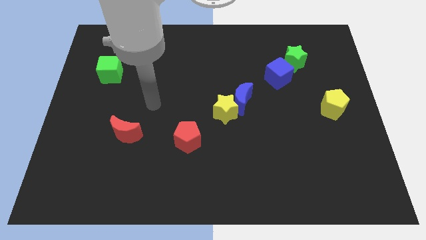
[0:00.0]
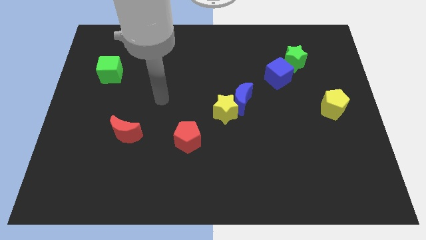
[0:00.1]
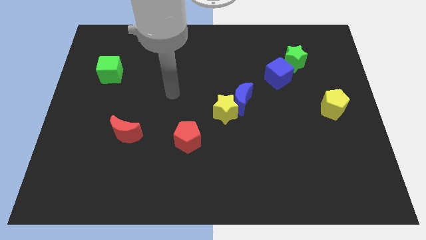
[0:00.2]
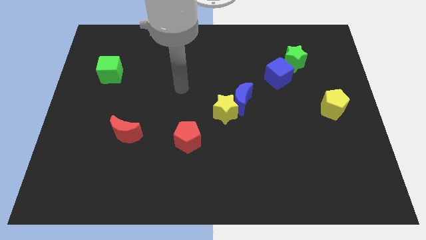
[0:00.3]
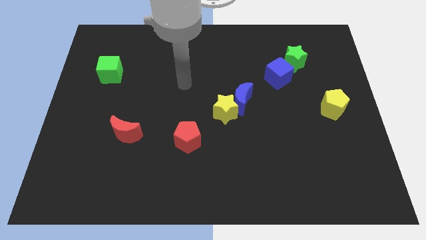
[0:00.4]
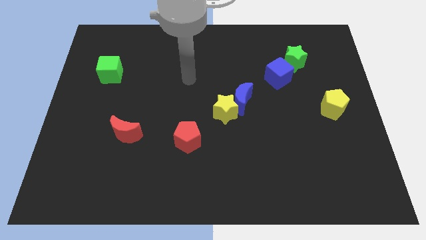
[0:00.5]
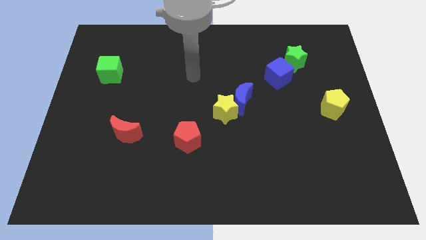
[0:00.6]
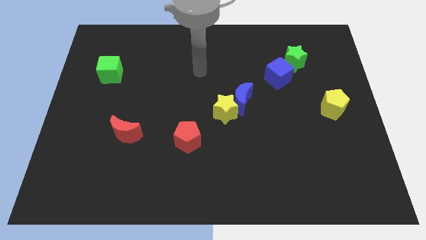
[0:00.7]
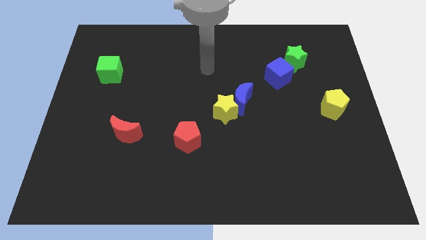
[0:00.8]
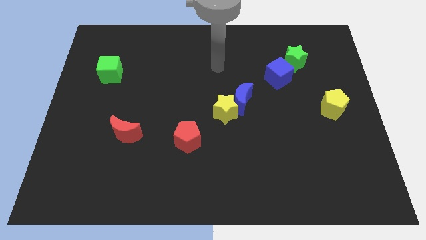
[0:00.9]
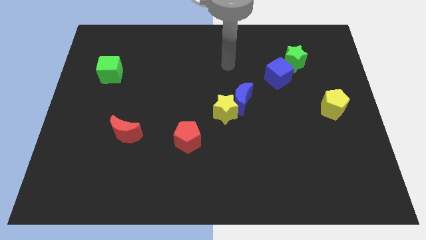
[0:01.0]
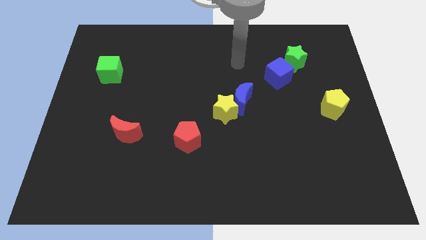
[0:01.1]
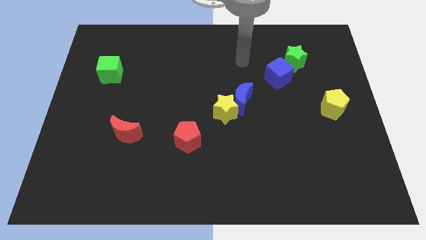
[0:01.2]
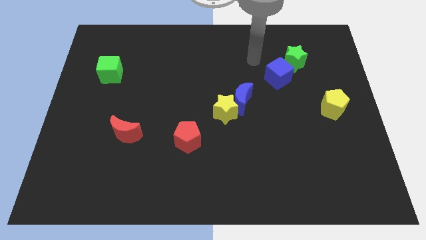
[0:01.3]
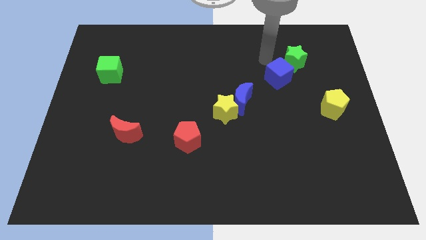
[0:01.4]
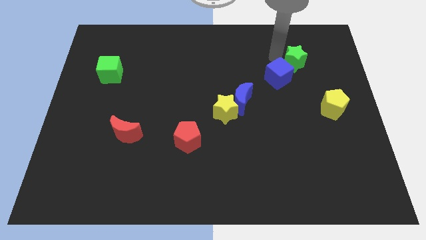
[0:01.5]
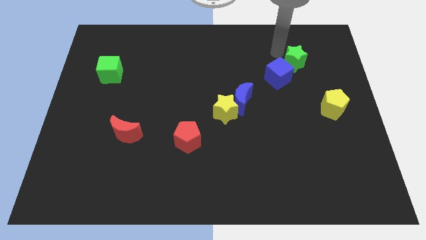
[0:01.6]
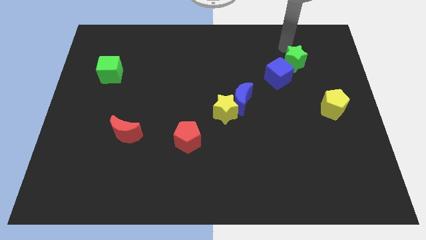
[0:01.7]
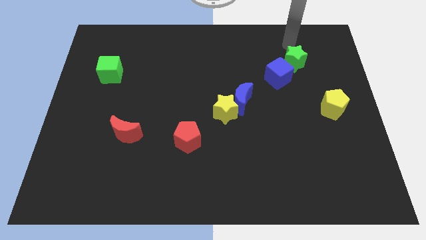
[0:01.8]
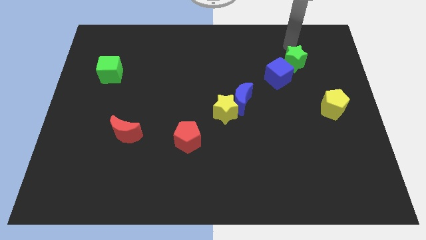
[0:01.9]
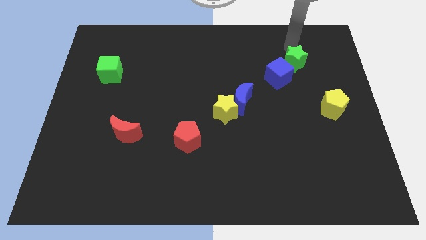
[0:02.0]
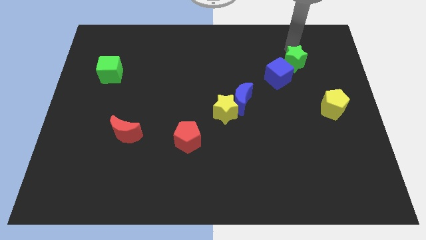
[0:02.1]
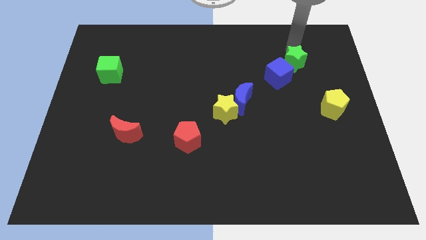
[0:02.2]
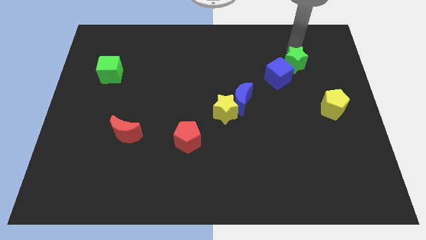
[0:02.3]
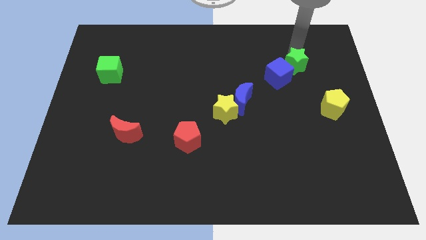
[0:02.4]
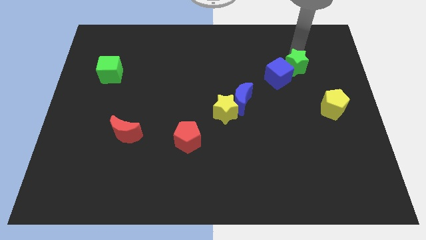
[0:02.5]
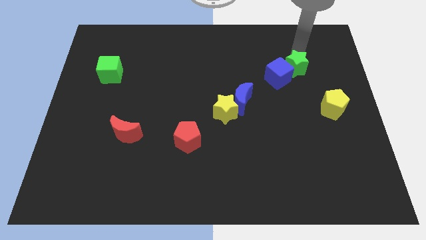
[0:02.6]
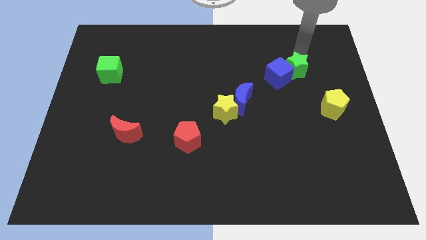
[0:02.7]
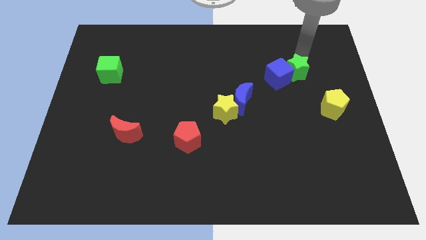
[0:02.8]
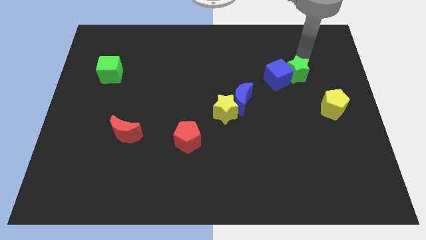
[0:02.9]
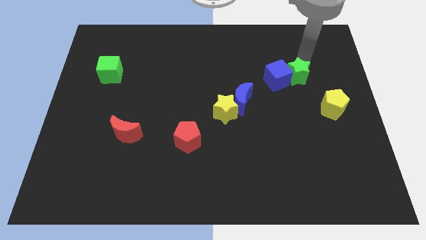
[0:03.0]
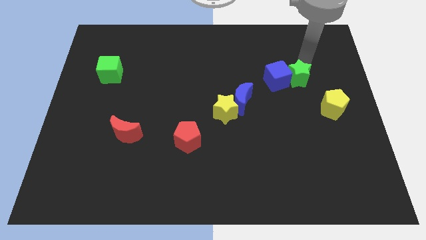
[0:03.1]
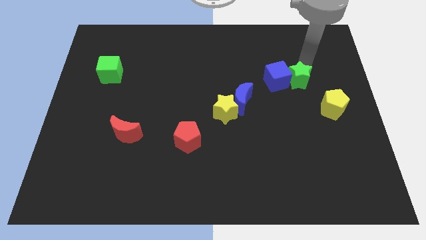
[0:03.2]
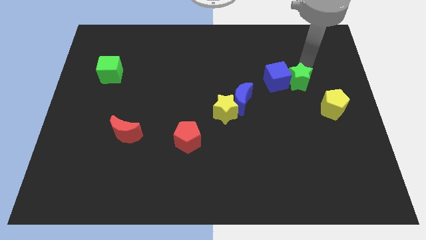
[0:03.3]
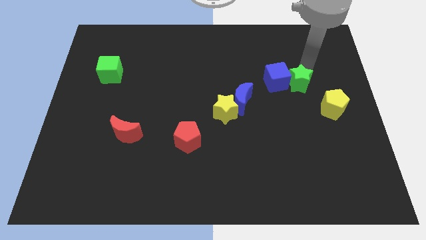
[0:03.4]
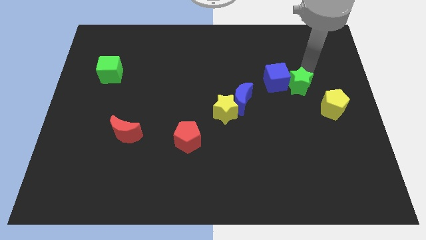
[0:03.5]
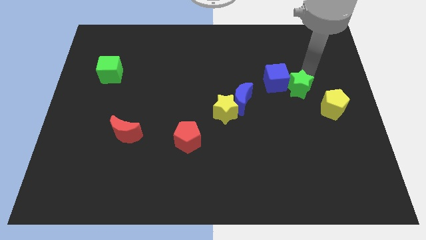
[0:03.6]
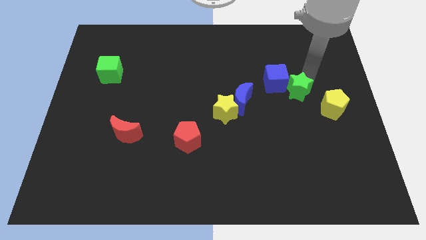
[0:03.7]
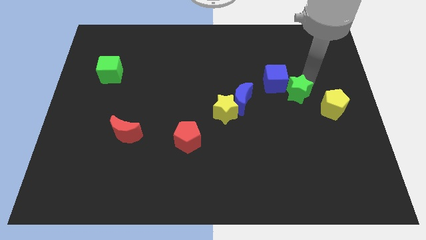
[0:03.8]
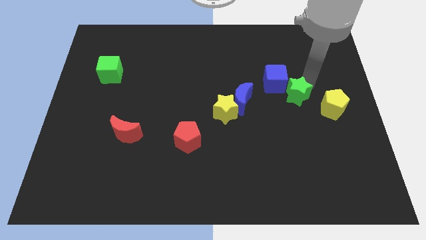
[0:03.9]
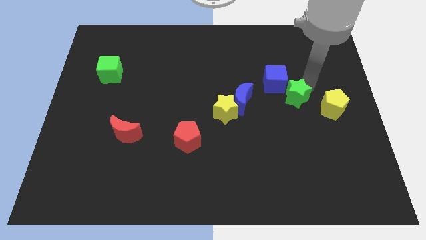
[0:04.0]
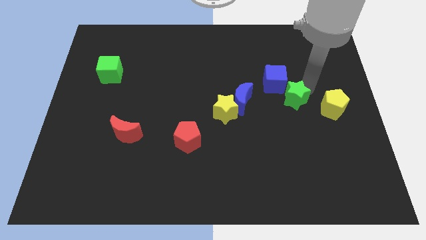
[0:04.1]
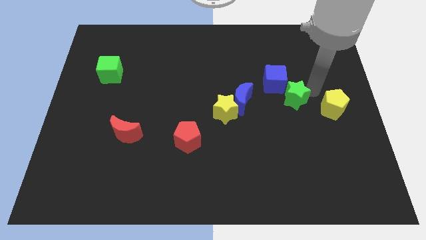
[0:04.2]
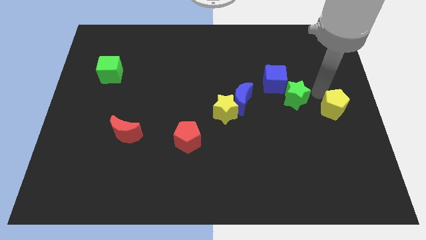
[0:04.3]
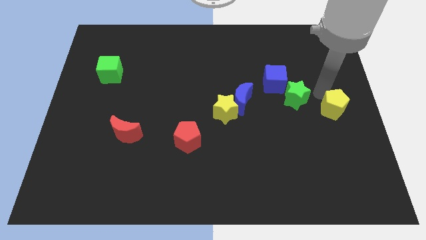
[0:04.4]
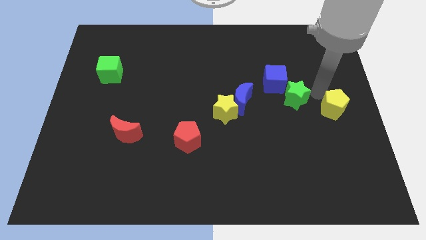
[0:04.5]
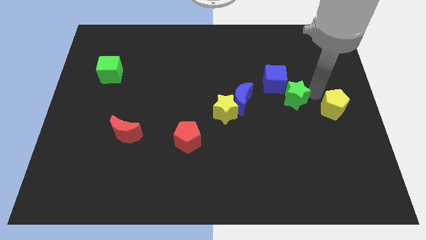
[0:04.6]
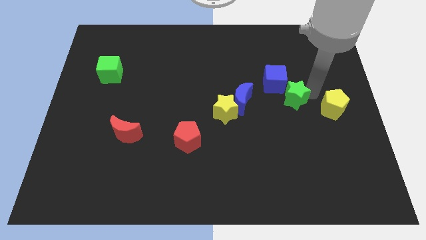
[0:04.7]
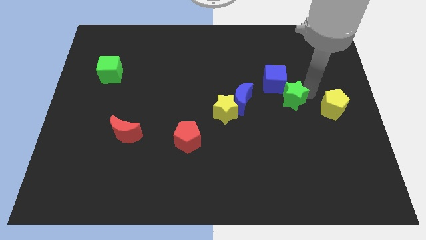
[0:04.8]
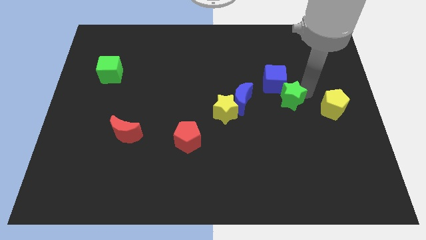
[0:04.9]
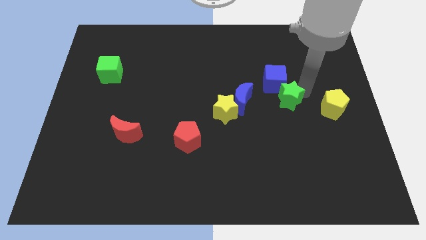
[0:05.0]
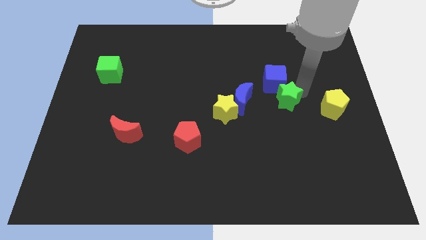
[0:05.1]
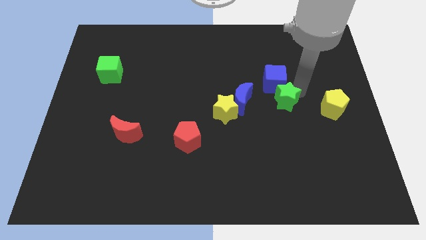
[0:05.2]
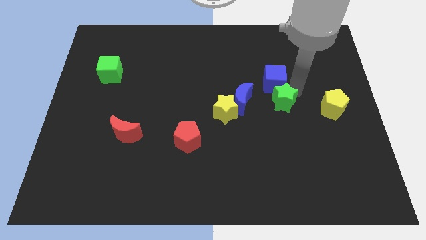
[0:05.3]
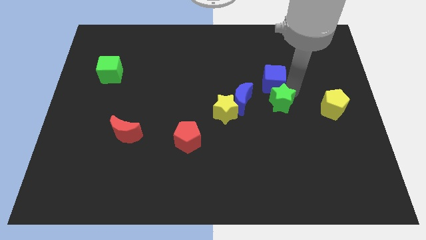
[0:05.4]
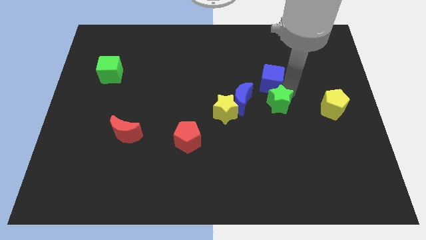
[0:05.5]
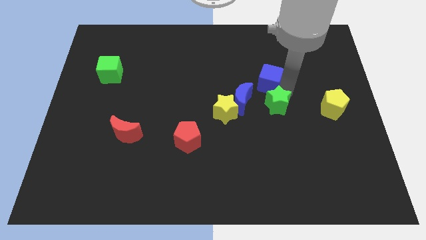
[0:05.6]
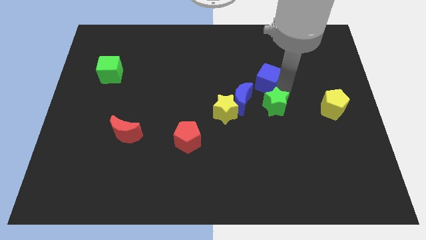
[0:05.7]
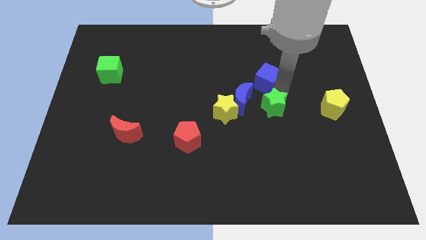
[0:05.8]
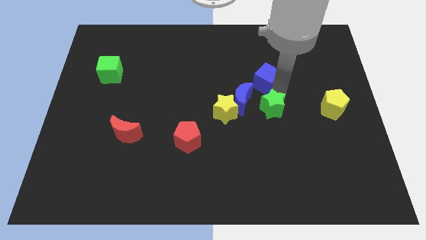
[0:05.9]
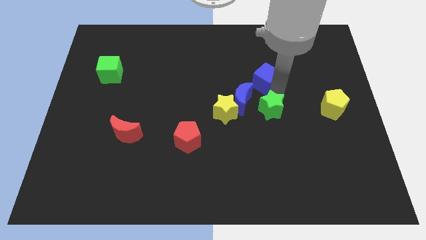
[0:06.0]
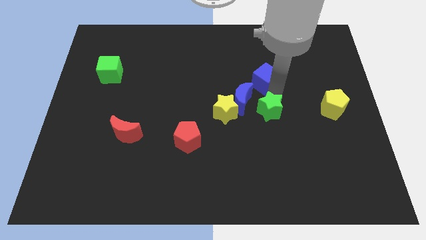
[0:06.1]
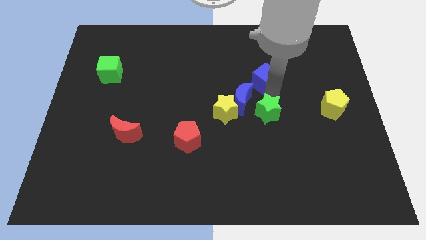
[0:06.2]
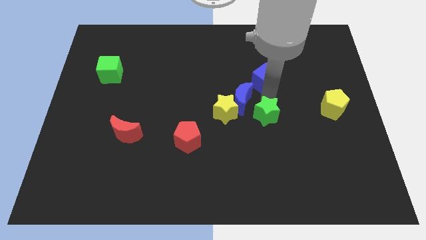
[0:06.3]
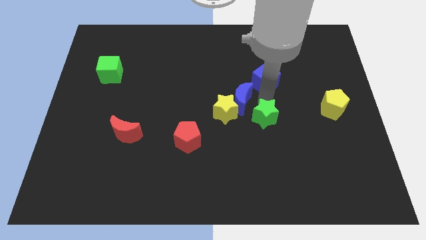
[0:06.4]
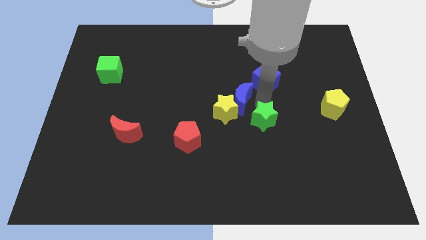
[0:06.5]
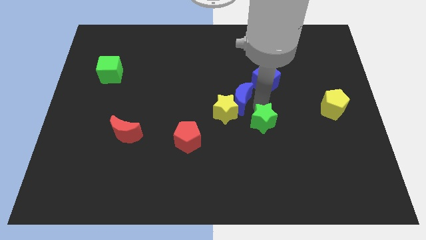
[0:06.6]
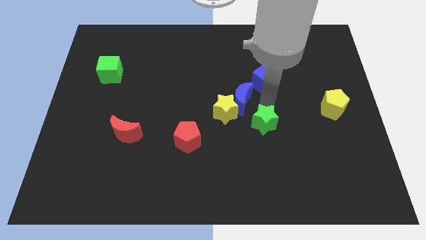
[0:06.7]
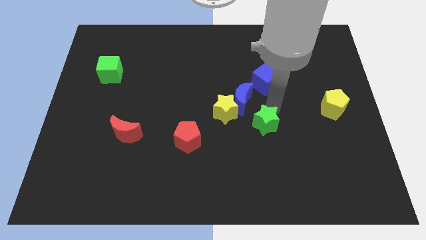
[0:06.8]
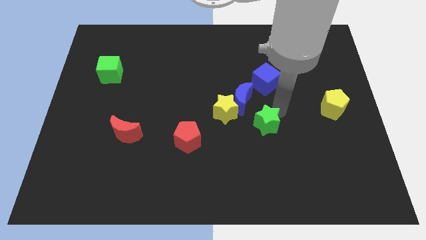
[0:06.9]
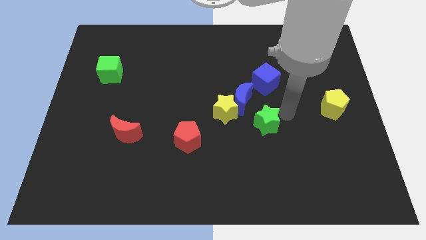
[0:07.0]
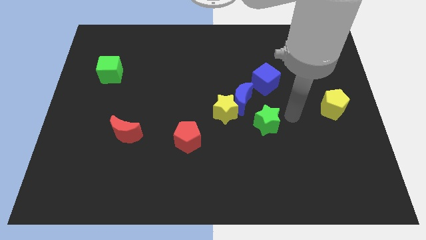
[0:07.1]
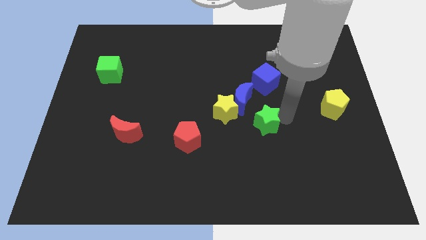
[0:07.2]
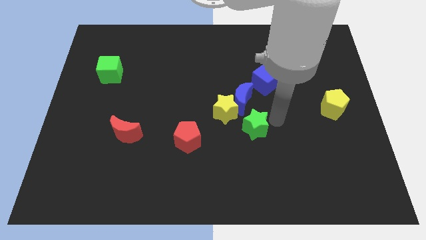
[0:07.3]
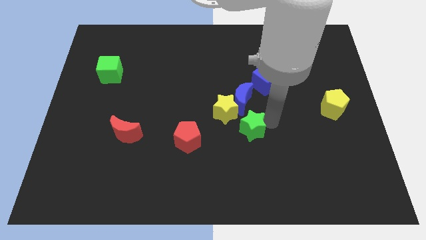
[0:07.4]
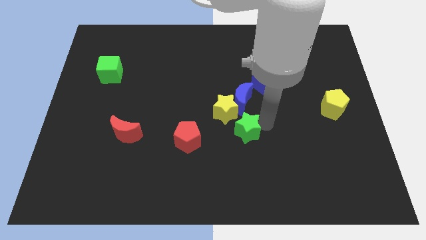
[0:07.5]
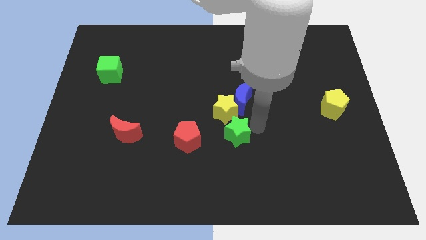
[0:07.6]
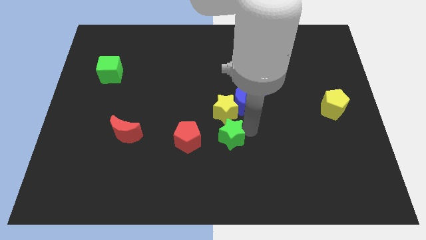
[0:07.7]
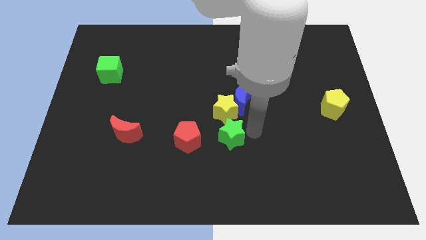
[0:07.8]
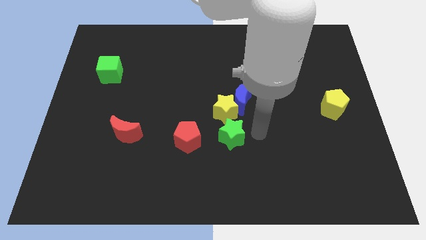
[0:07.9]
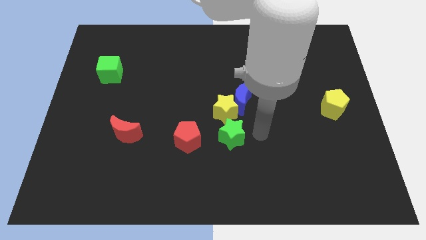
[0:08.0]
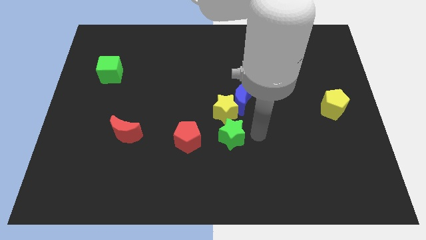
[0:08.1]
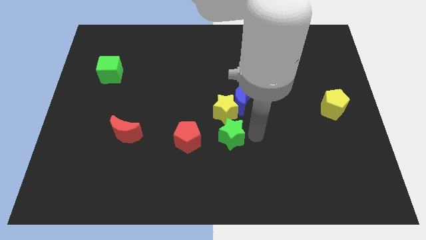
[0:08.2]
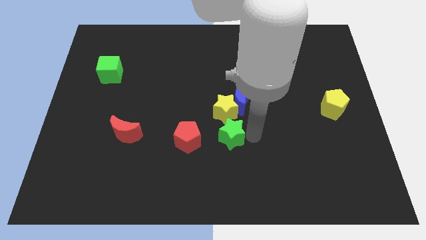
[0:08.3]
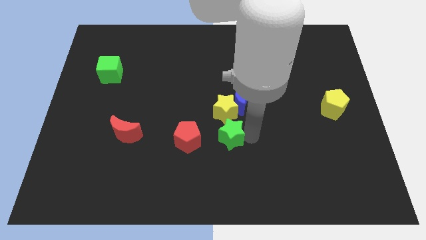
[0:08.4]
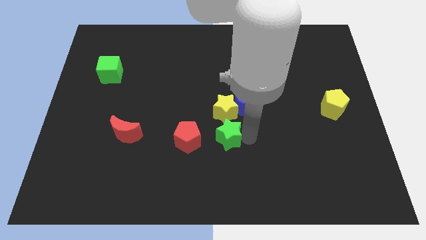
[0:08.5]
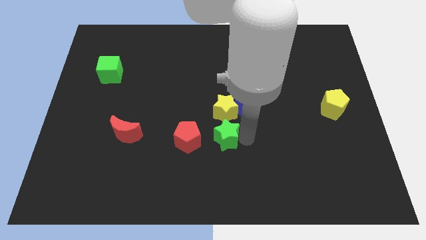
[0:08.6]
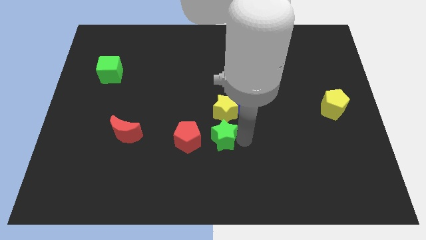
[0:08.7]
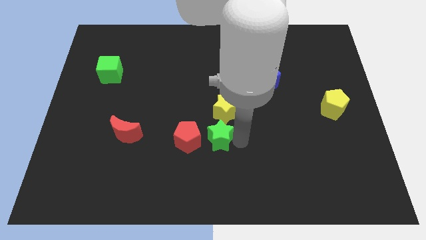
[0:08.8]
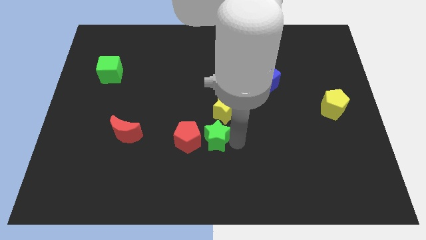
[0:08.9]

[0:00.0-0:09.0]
push the green star next to the red pentagon
